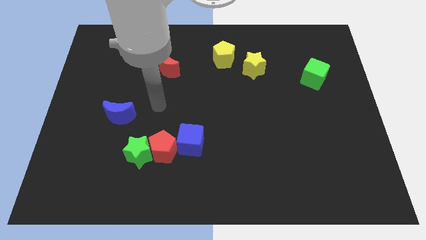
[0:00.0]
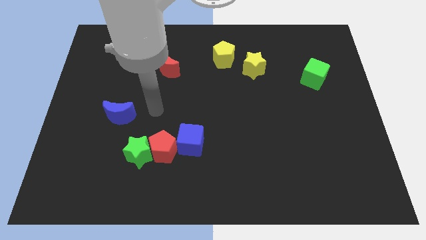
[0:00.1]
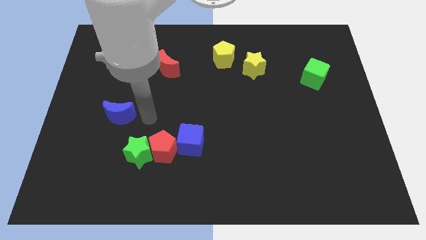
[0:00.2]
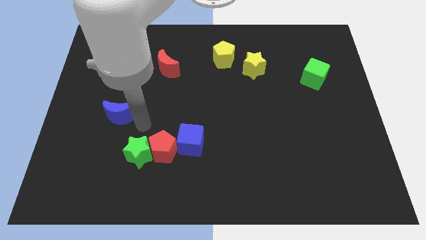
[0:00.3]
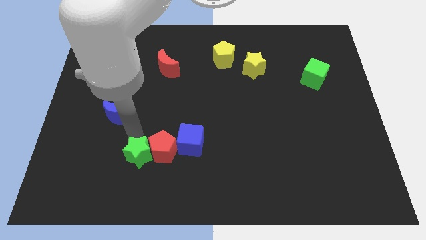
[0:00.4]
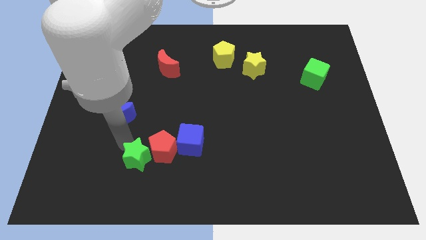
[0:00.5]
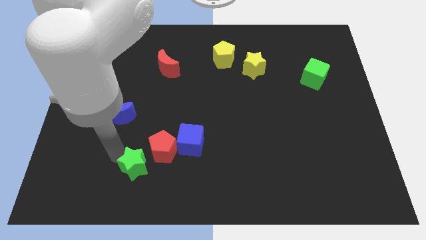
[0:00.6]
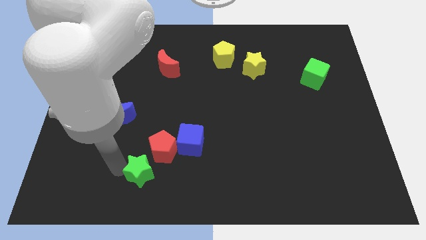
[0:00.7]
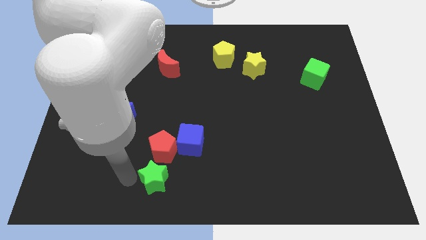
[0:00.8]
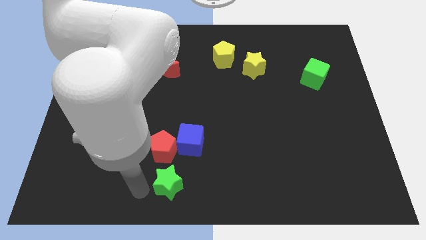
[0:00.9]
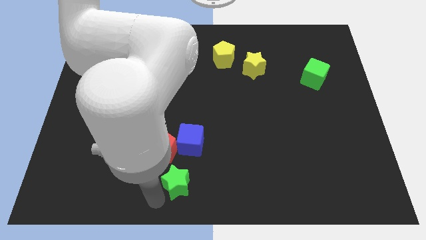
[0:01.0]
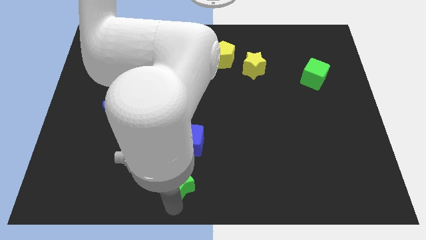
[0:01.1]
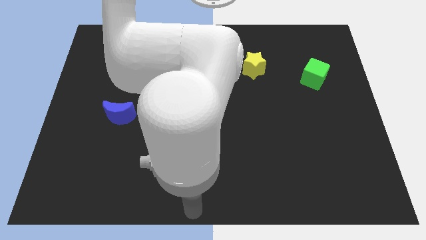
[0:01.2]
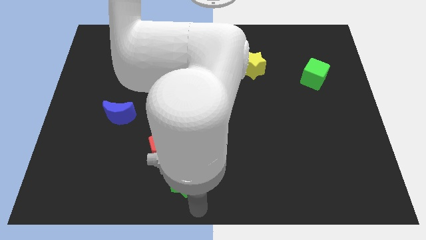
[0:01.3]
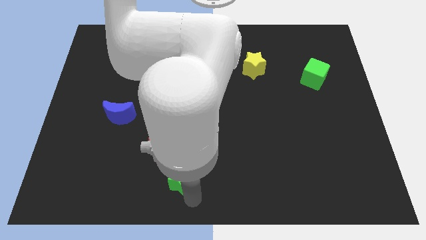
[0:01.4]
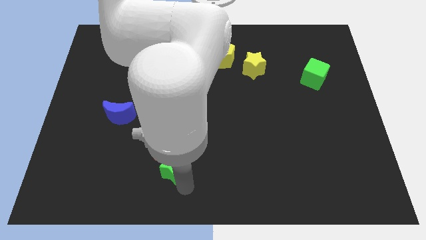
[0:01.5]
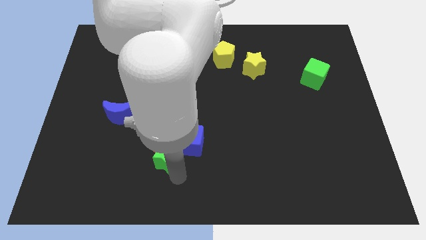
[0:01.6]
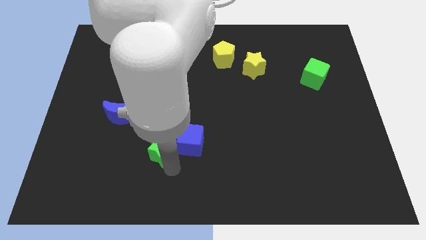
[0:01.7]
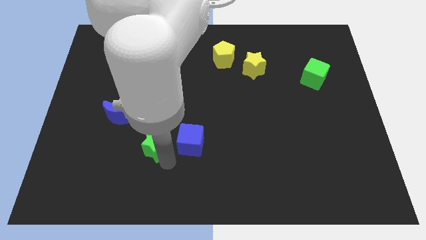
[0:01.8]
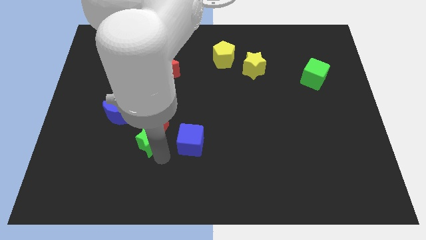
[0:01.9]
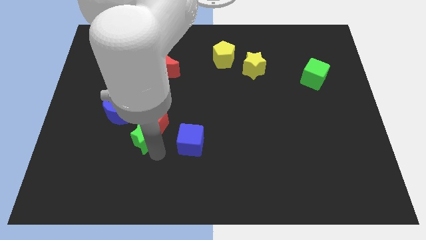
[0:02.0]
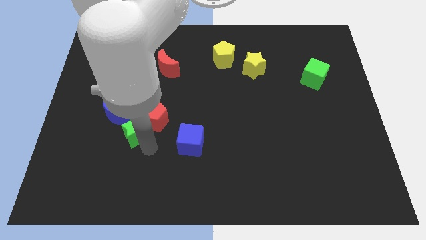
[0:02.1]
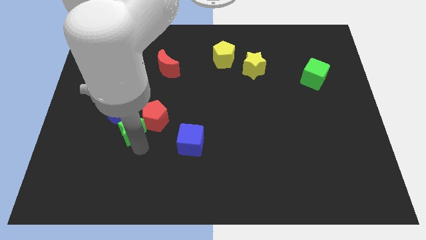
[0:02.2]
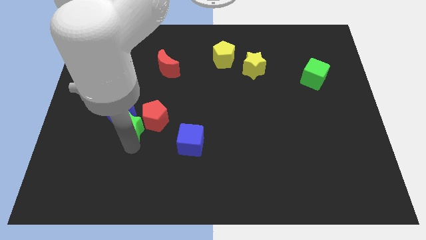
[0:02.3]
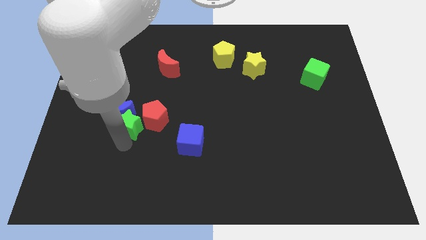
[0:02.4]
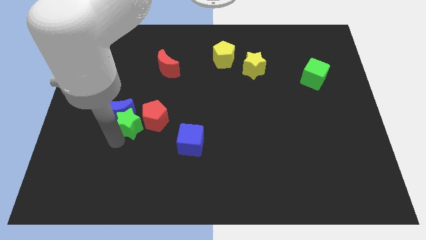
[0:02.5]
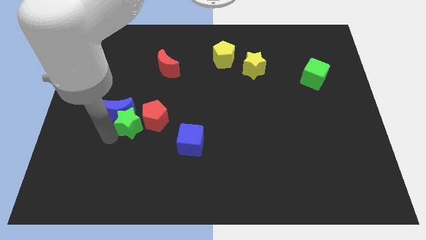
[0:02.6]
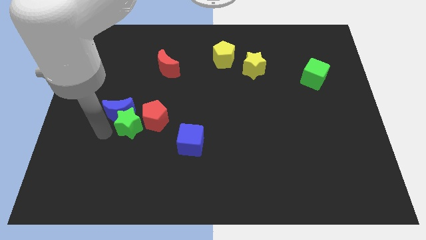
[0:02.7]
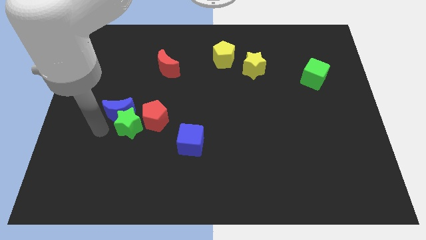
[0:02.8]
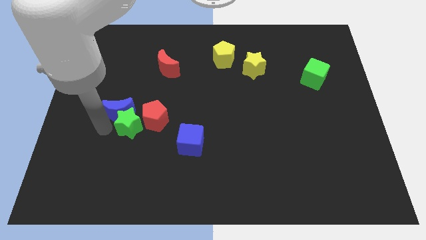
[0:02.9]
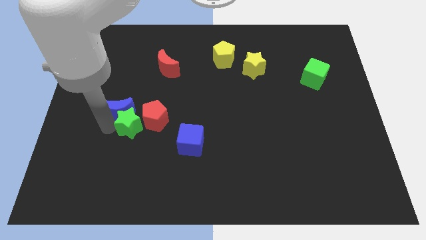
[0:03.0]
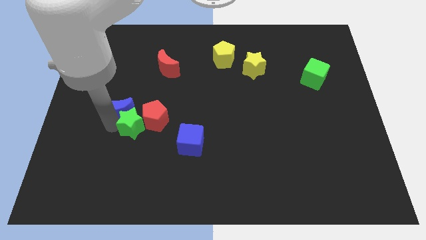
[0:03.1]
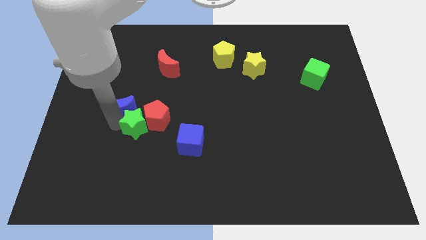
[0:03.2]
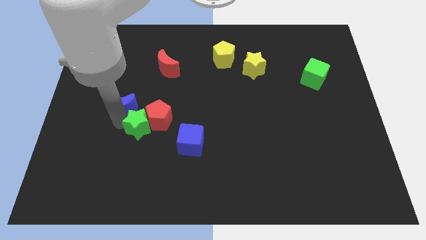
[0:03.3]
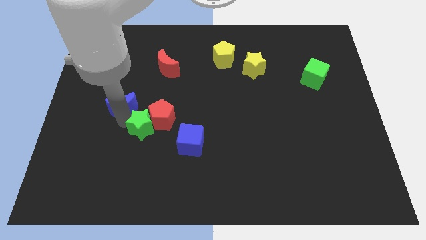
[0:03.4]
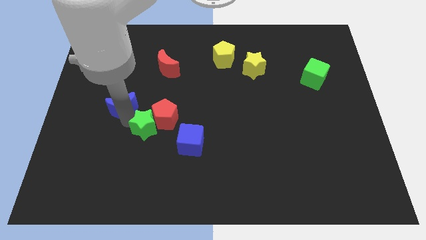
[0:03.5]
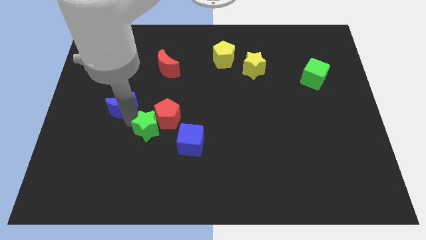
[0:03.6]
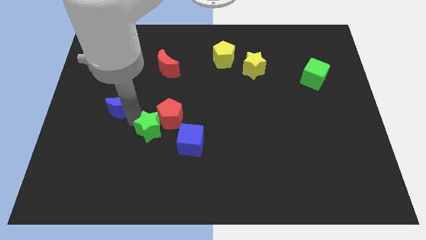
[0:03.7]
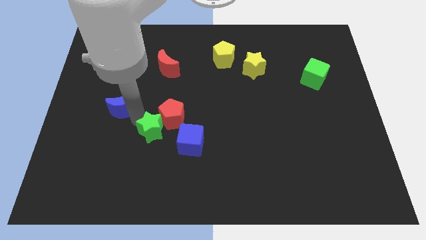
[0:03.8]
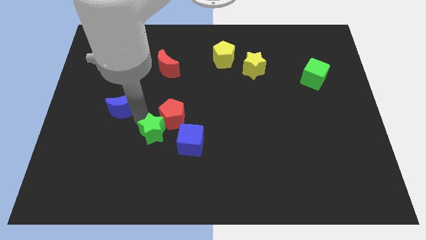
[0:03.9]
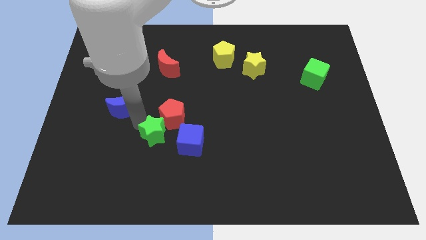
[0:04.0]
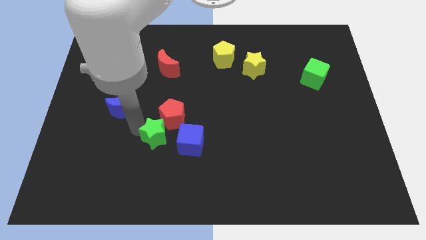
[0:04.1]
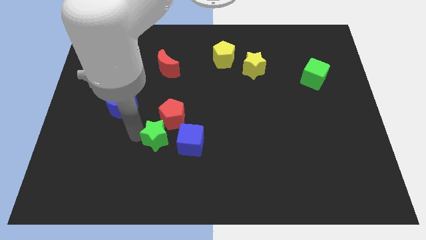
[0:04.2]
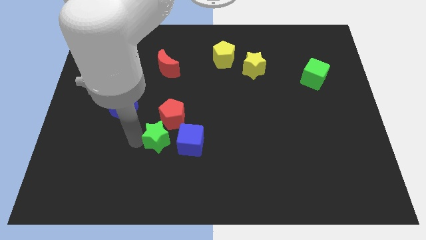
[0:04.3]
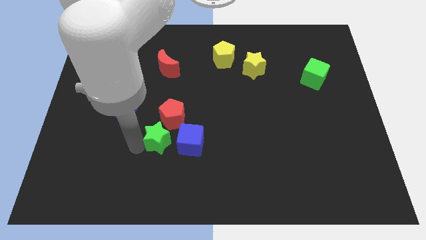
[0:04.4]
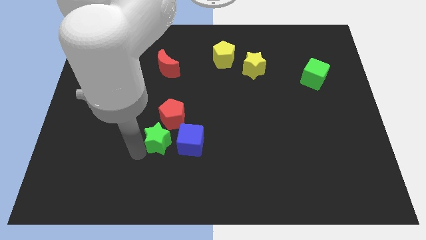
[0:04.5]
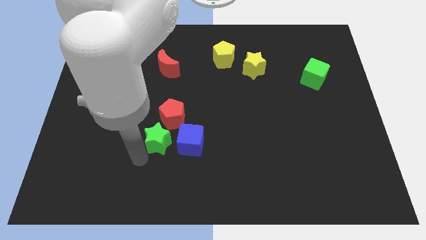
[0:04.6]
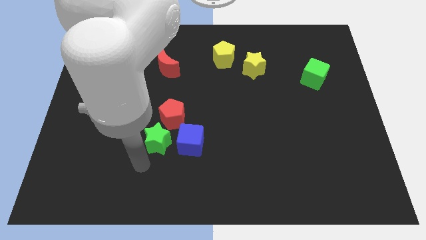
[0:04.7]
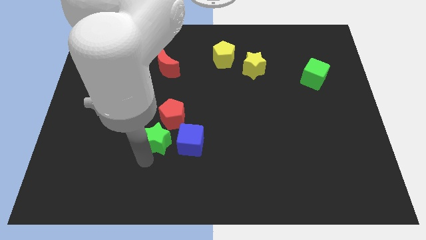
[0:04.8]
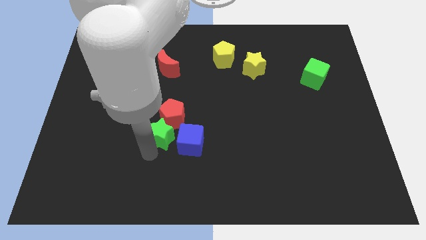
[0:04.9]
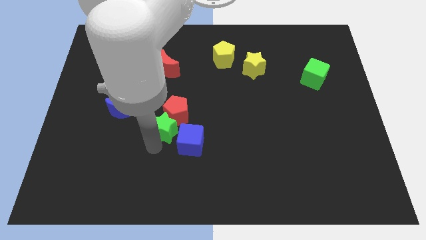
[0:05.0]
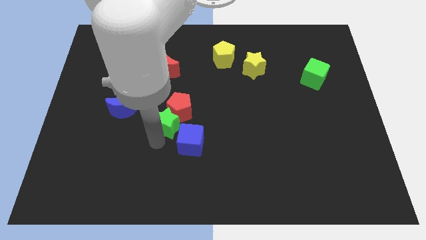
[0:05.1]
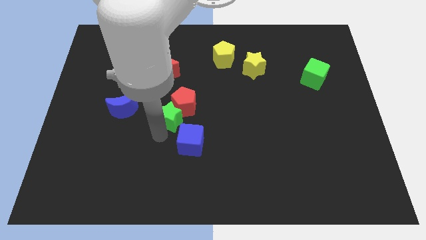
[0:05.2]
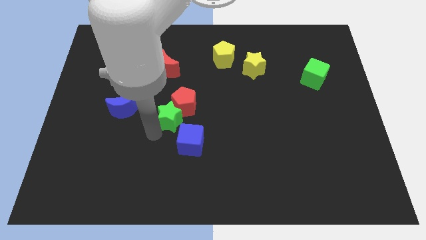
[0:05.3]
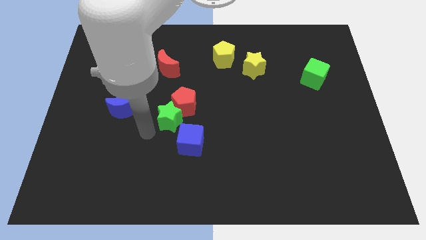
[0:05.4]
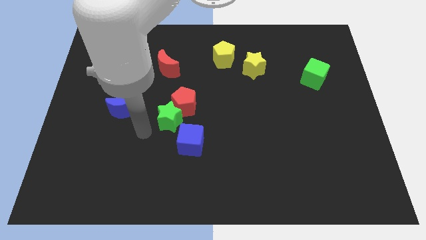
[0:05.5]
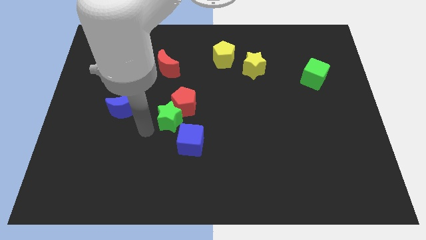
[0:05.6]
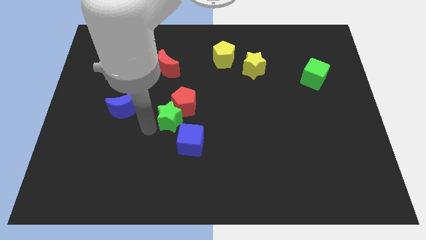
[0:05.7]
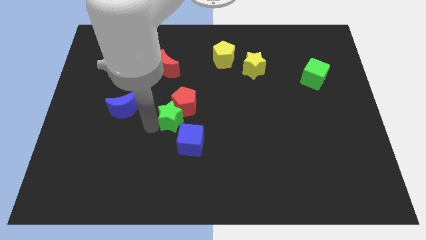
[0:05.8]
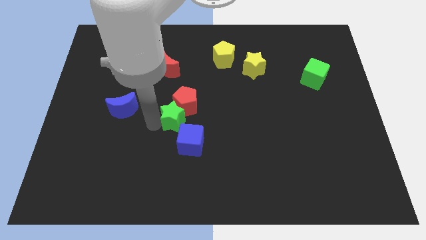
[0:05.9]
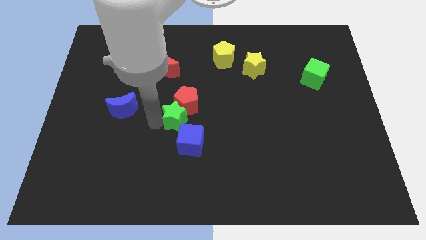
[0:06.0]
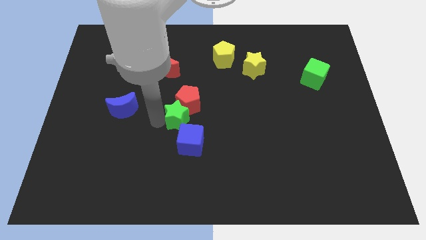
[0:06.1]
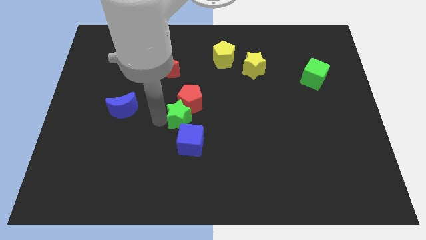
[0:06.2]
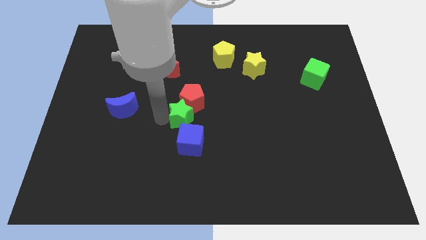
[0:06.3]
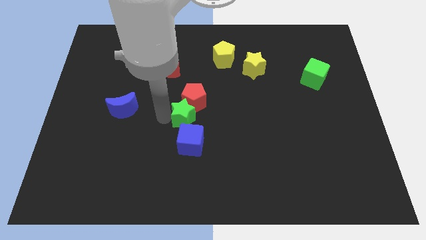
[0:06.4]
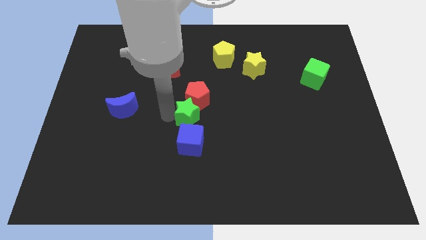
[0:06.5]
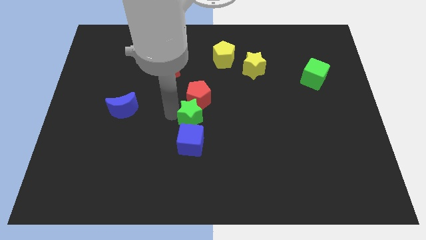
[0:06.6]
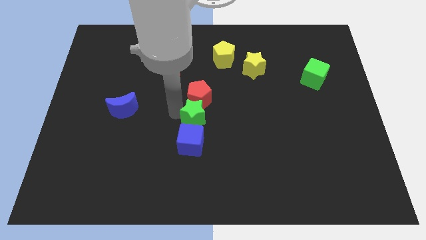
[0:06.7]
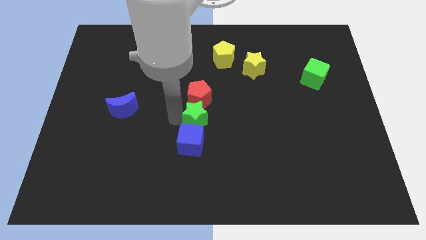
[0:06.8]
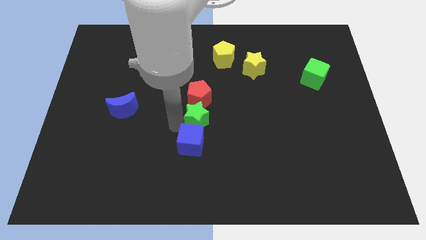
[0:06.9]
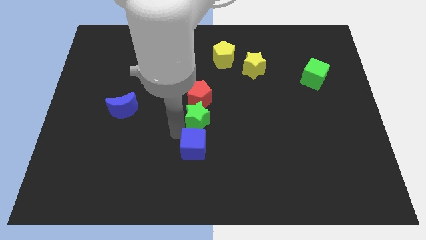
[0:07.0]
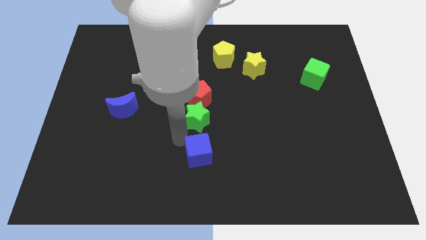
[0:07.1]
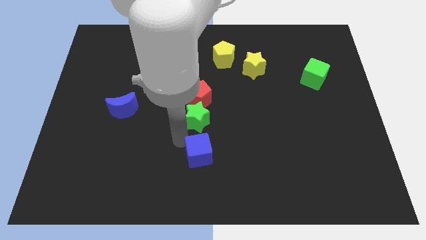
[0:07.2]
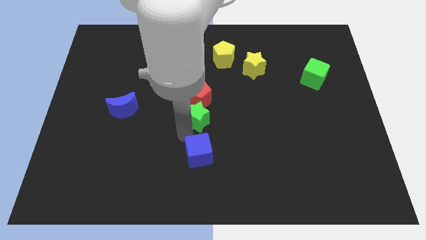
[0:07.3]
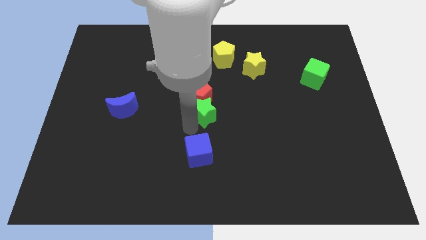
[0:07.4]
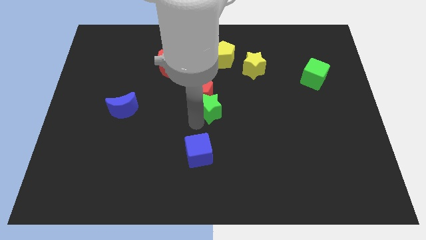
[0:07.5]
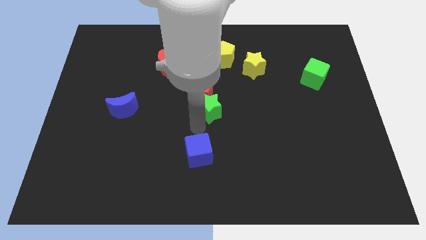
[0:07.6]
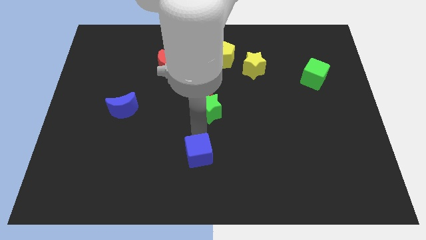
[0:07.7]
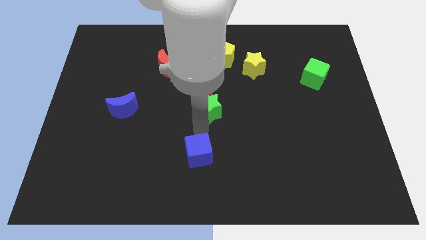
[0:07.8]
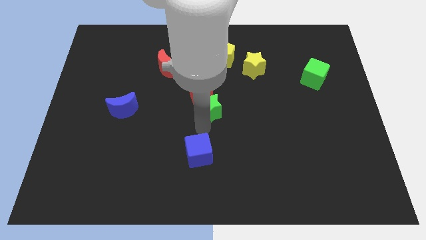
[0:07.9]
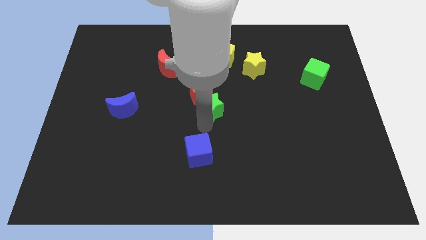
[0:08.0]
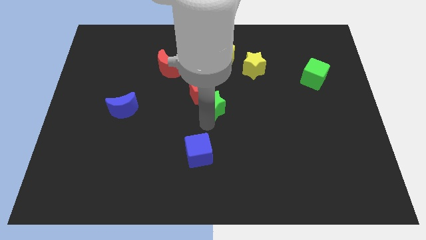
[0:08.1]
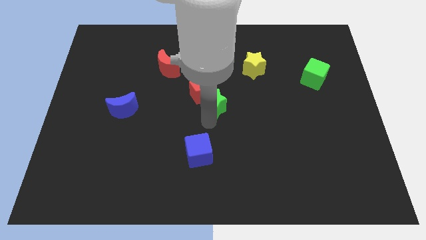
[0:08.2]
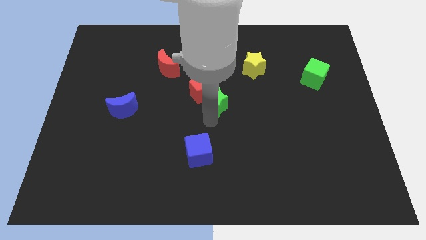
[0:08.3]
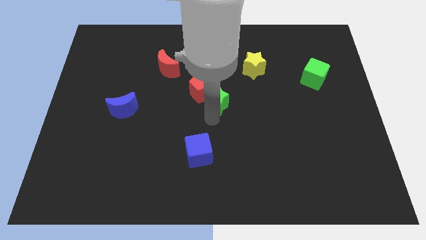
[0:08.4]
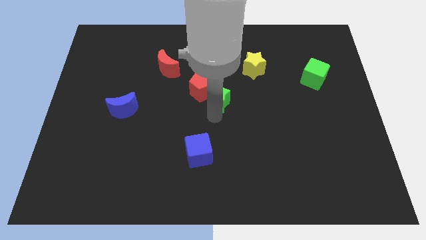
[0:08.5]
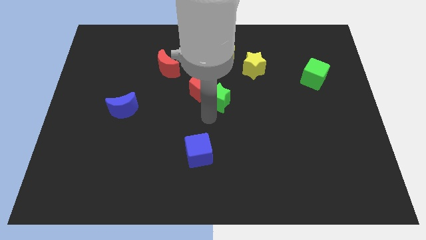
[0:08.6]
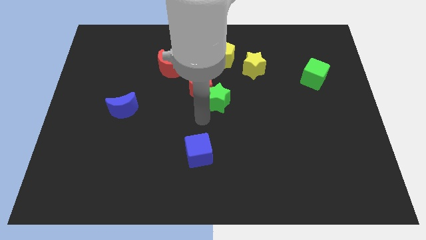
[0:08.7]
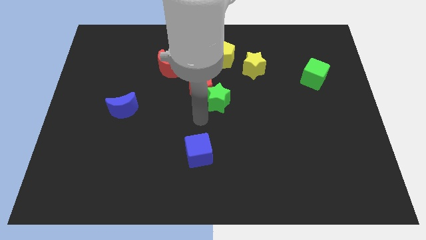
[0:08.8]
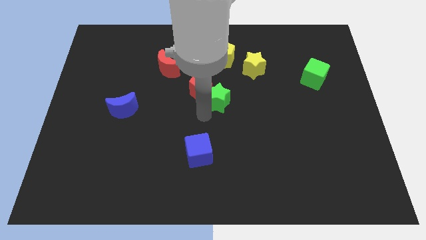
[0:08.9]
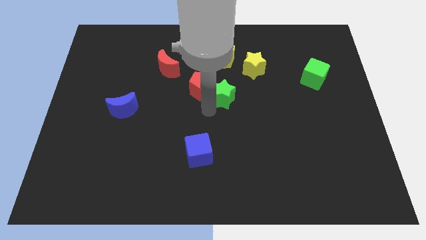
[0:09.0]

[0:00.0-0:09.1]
push the green star to the bottom left of the yellow star
